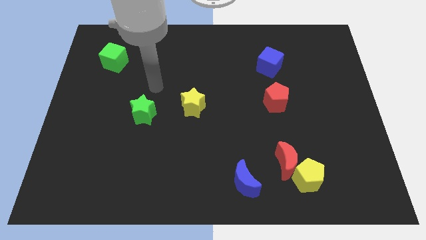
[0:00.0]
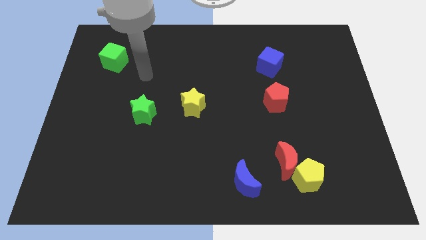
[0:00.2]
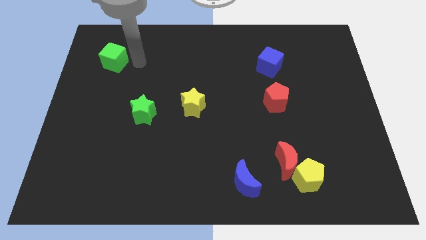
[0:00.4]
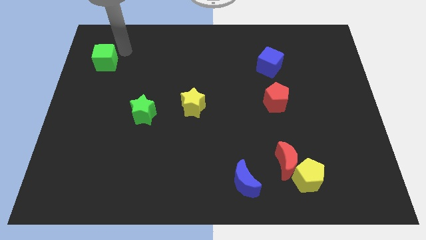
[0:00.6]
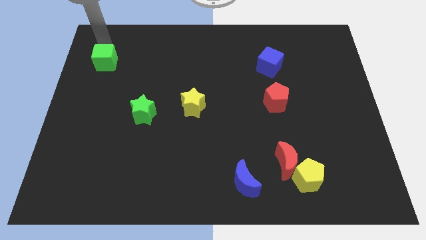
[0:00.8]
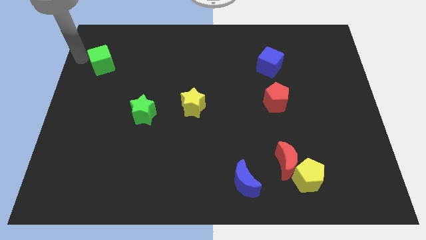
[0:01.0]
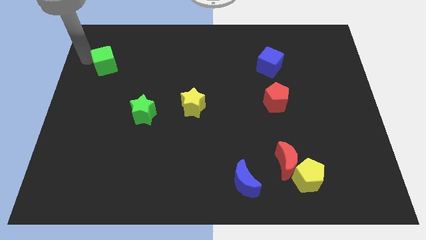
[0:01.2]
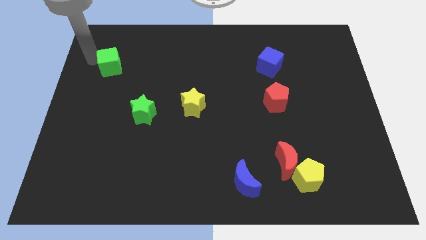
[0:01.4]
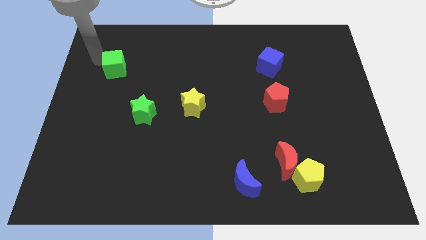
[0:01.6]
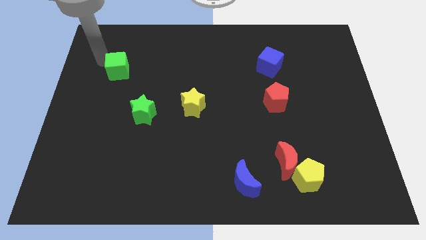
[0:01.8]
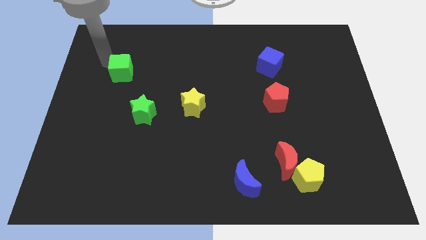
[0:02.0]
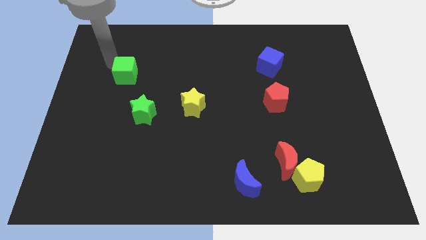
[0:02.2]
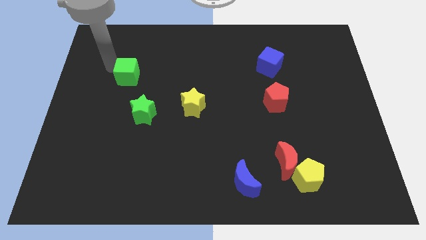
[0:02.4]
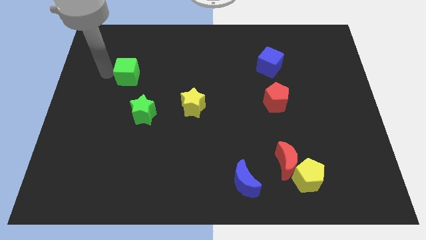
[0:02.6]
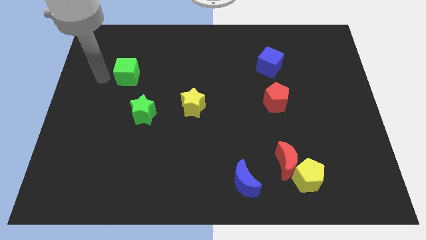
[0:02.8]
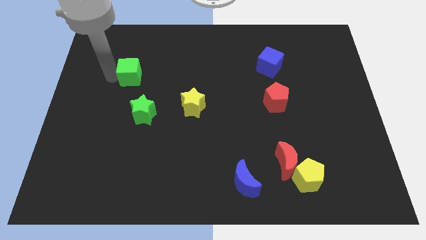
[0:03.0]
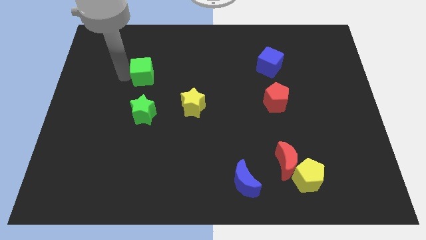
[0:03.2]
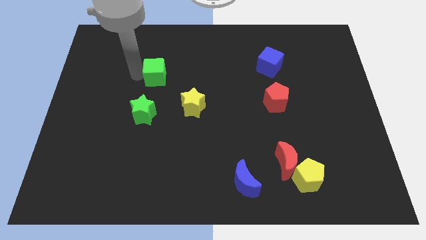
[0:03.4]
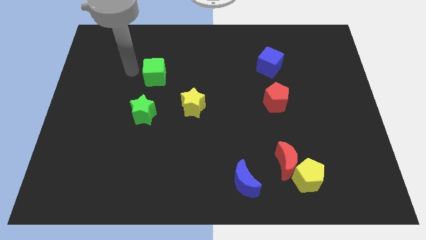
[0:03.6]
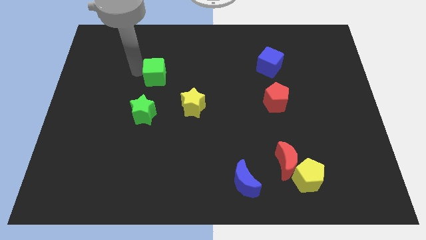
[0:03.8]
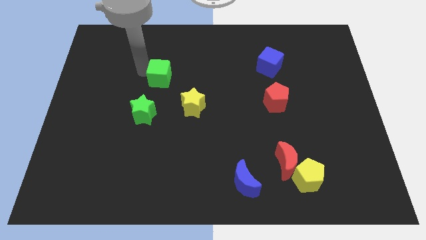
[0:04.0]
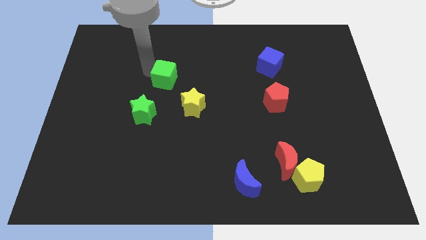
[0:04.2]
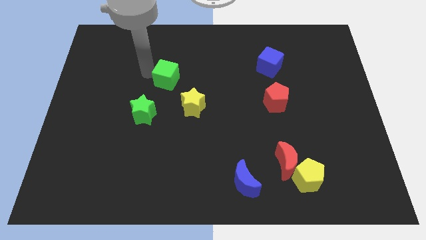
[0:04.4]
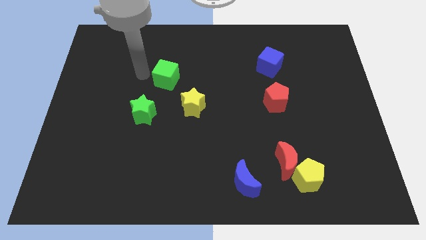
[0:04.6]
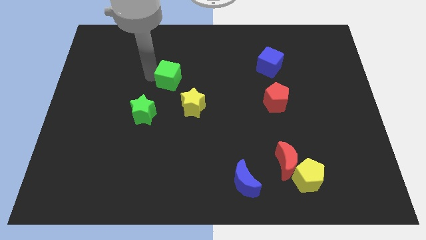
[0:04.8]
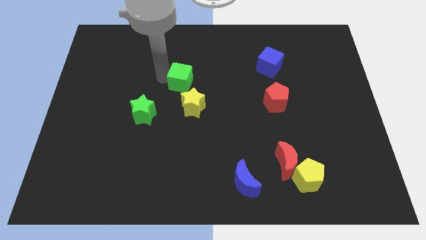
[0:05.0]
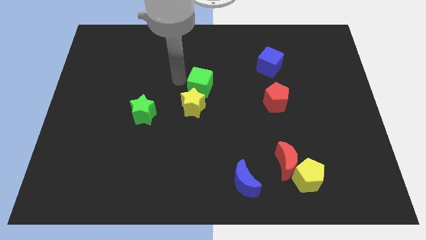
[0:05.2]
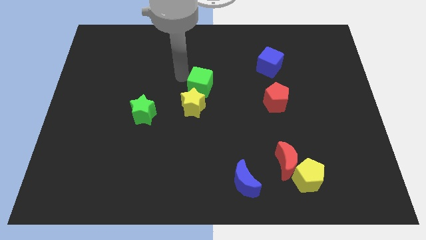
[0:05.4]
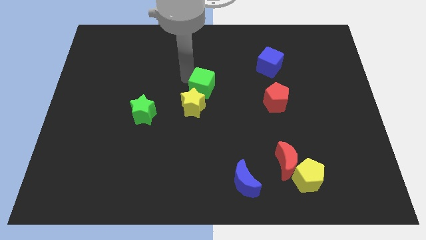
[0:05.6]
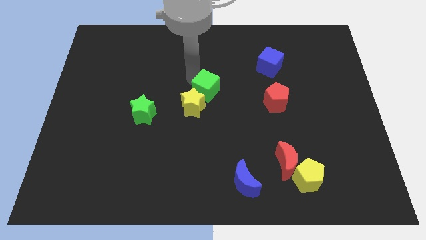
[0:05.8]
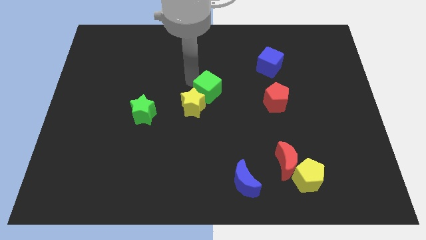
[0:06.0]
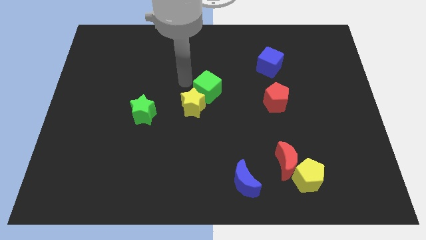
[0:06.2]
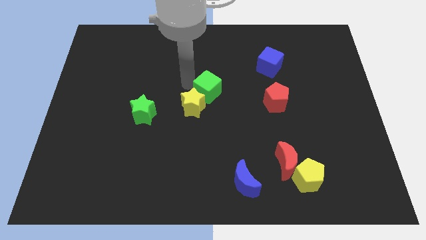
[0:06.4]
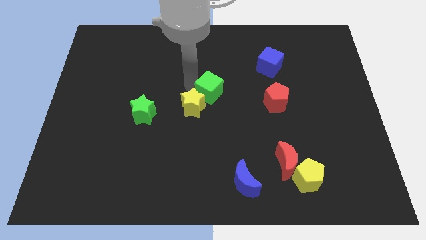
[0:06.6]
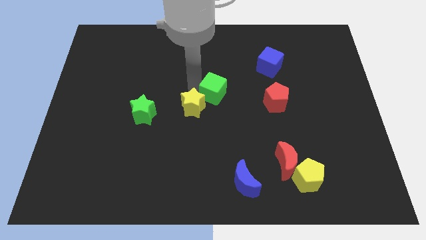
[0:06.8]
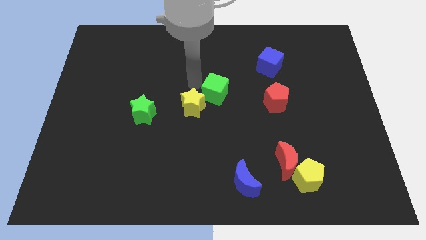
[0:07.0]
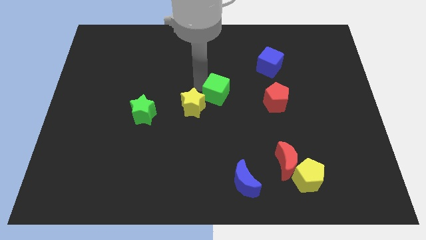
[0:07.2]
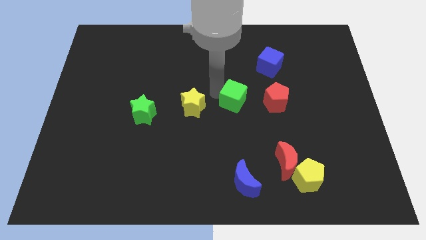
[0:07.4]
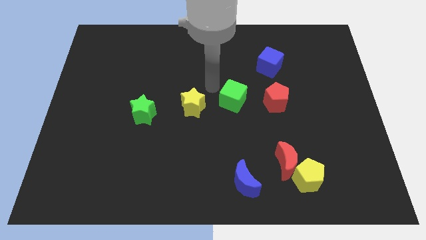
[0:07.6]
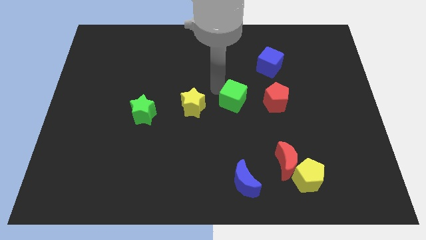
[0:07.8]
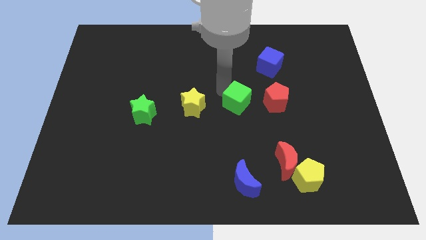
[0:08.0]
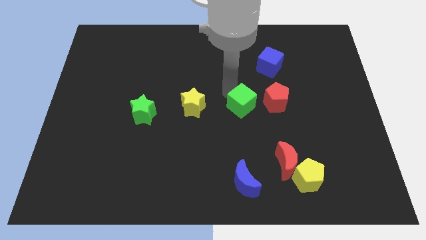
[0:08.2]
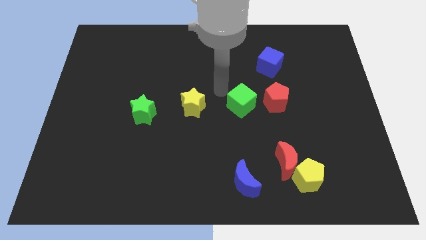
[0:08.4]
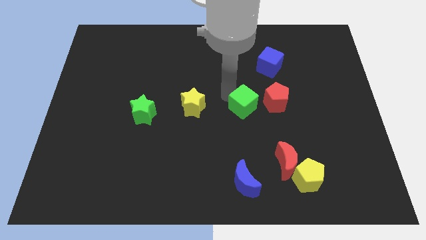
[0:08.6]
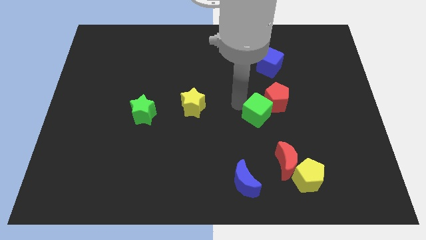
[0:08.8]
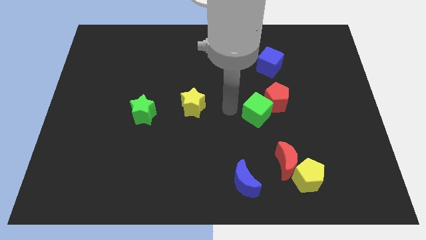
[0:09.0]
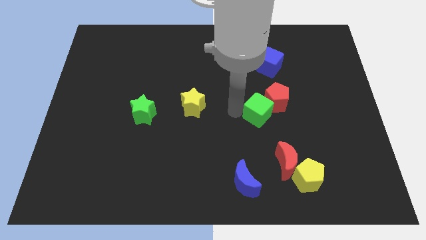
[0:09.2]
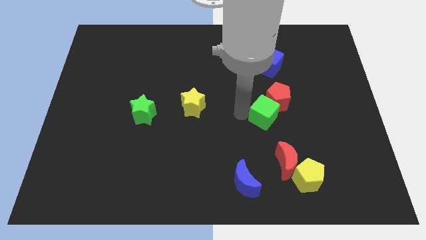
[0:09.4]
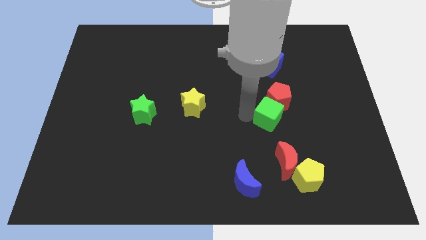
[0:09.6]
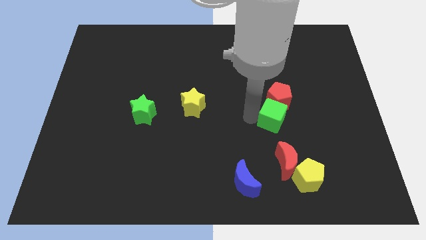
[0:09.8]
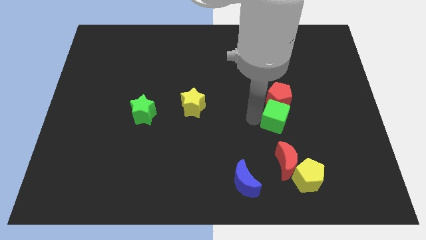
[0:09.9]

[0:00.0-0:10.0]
slide the green cube to the bottom right of the red pentagon

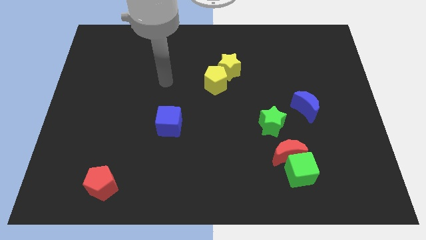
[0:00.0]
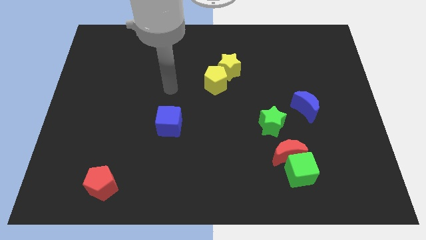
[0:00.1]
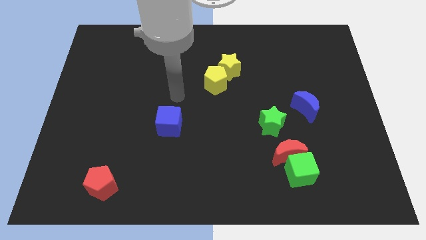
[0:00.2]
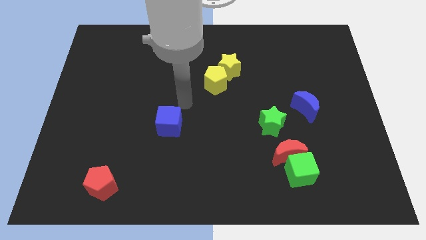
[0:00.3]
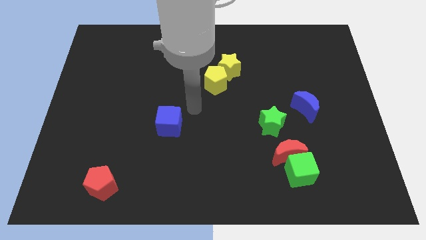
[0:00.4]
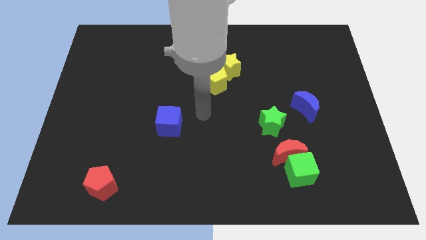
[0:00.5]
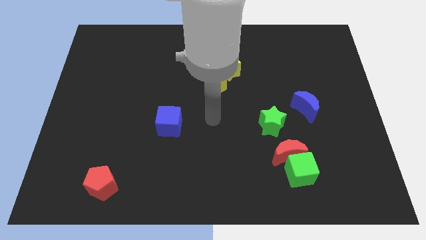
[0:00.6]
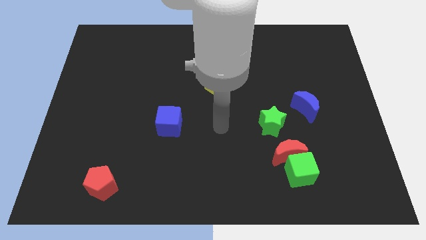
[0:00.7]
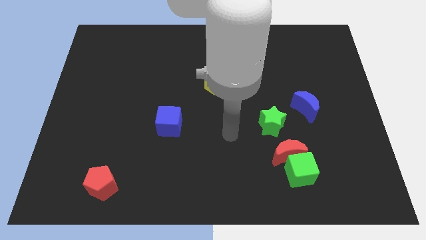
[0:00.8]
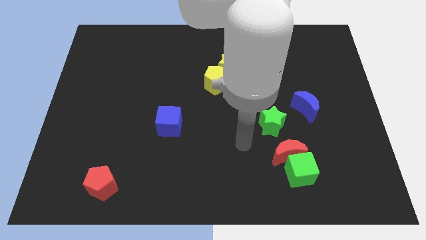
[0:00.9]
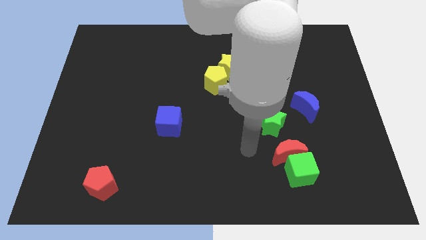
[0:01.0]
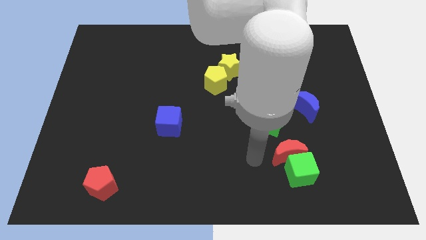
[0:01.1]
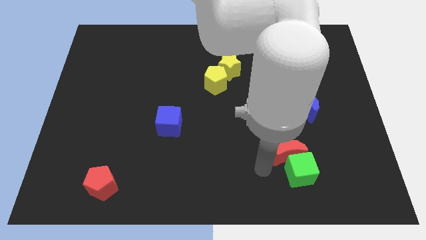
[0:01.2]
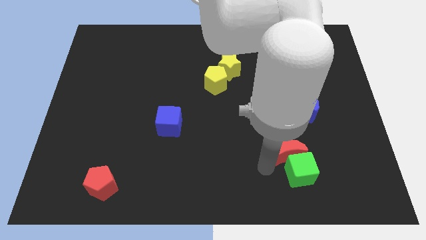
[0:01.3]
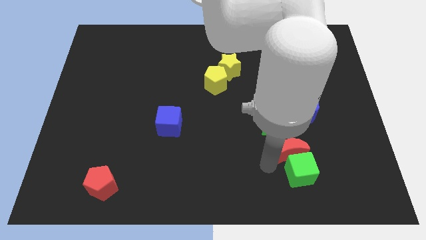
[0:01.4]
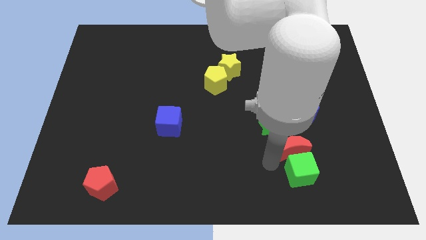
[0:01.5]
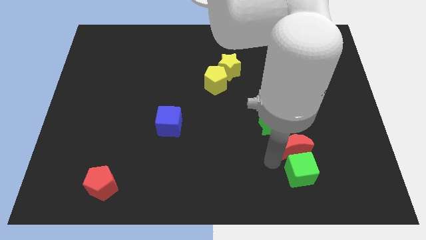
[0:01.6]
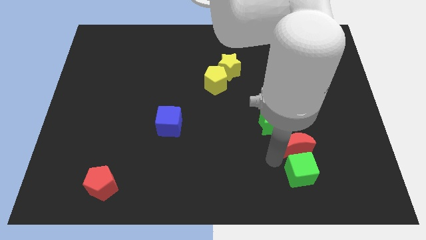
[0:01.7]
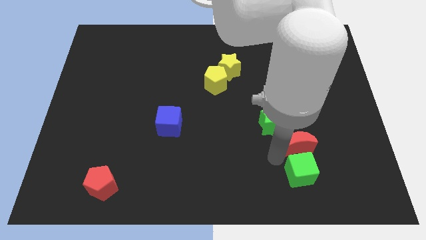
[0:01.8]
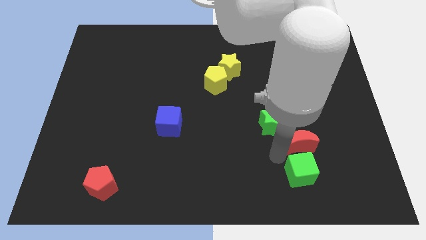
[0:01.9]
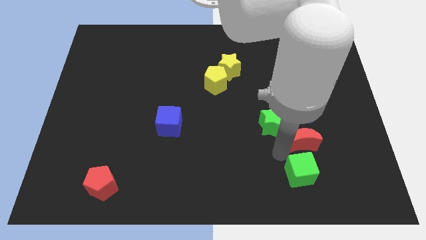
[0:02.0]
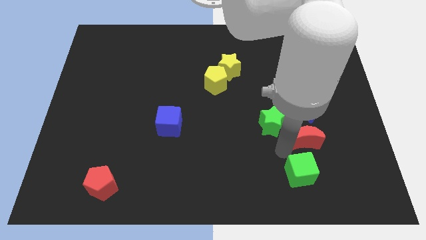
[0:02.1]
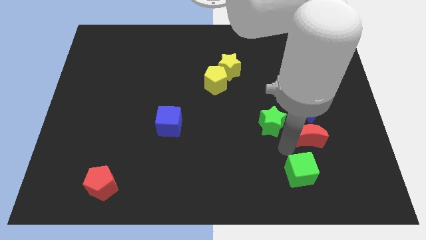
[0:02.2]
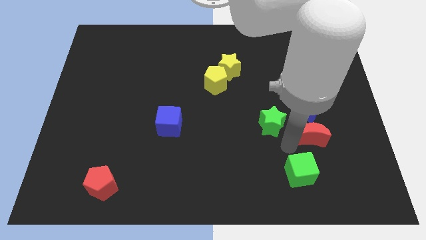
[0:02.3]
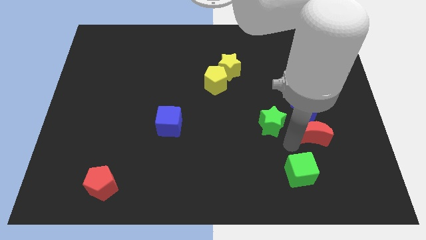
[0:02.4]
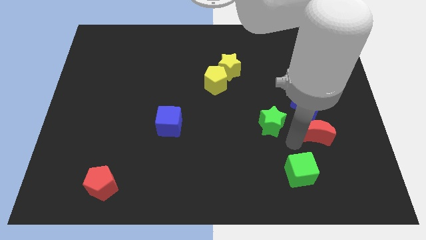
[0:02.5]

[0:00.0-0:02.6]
put the red moon to the bottom right side of the blue moon
